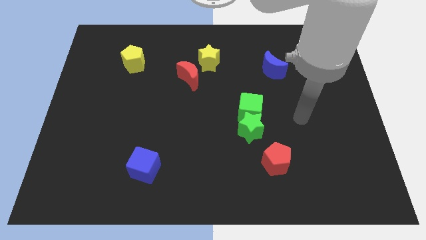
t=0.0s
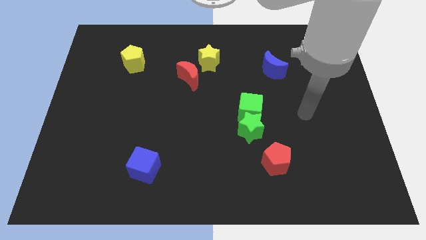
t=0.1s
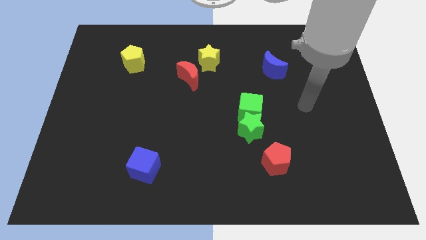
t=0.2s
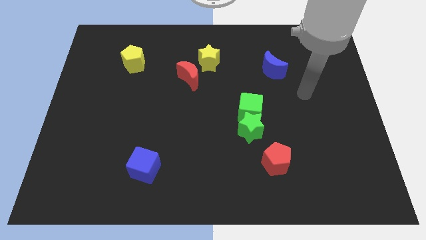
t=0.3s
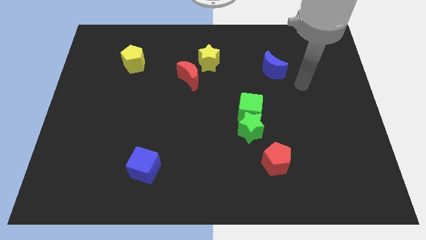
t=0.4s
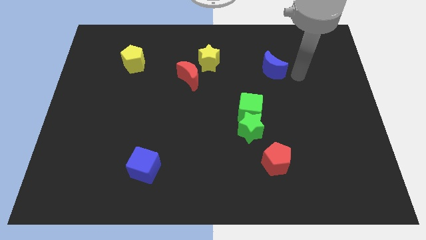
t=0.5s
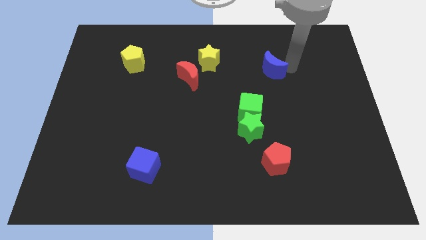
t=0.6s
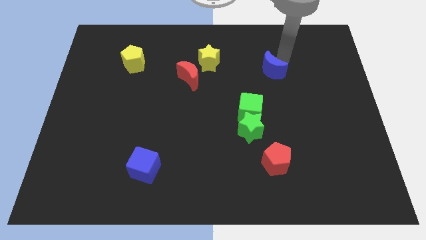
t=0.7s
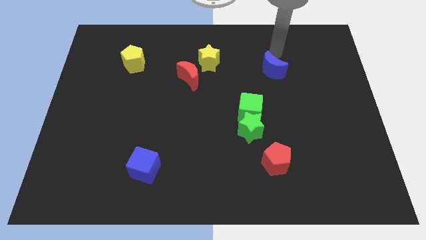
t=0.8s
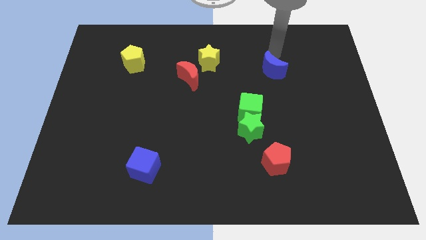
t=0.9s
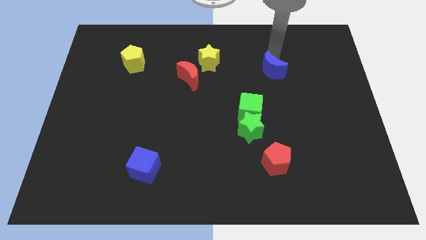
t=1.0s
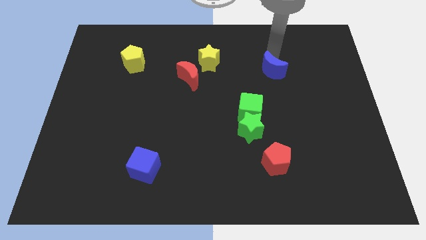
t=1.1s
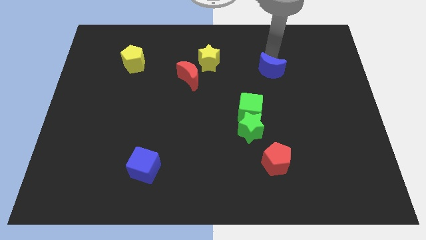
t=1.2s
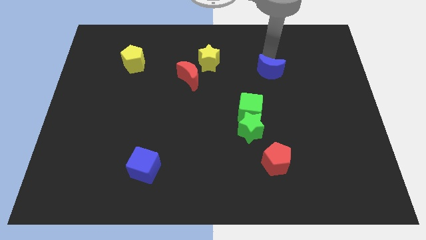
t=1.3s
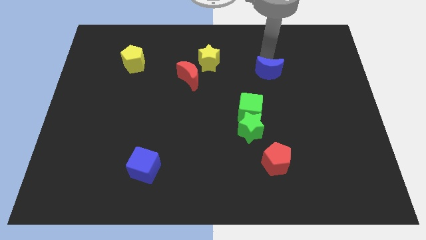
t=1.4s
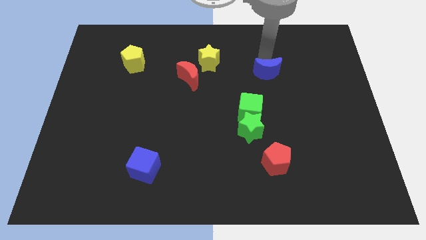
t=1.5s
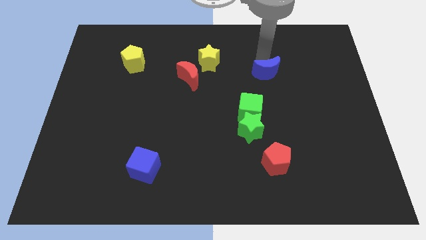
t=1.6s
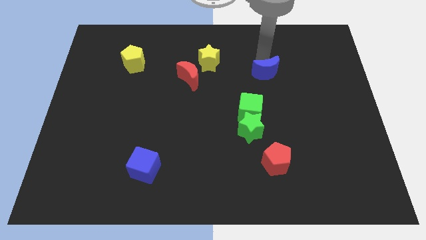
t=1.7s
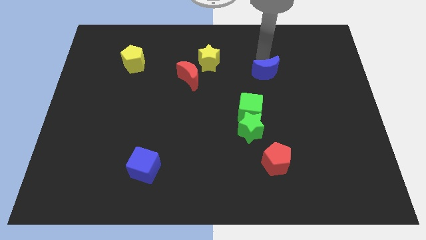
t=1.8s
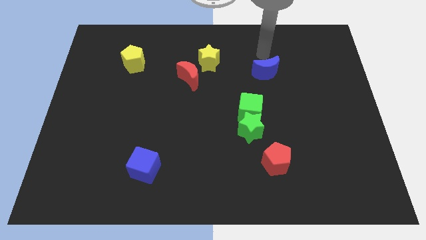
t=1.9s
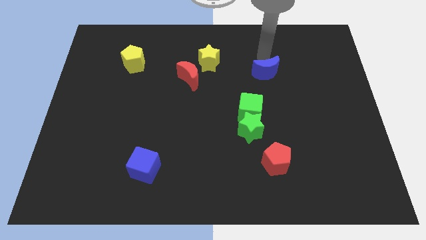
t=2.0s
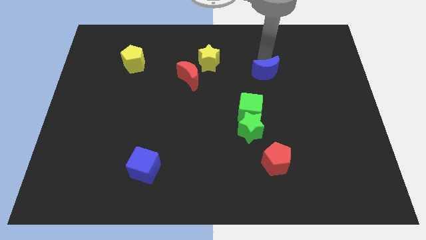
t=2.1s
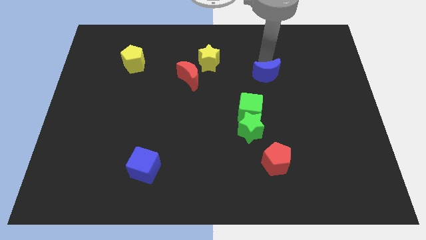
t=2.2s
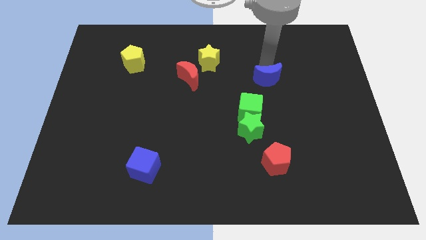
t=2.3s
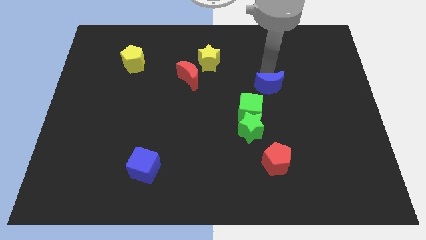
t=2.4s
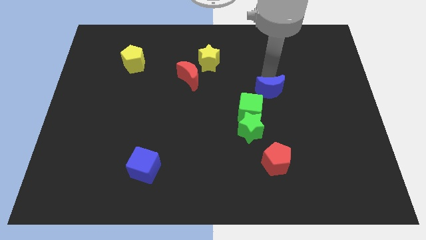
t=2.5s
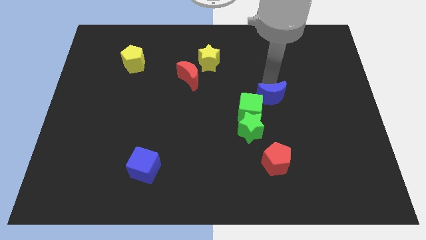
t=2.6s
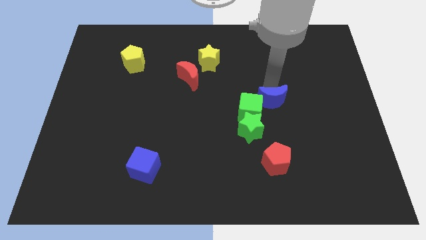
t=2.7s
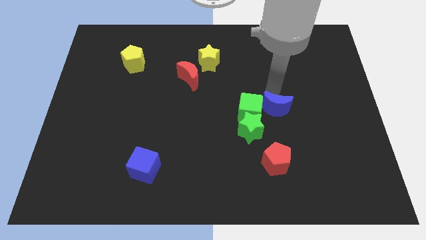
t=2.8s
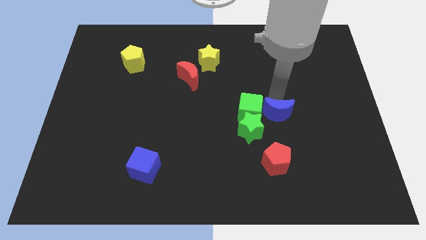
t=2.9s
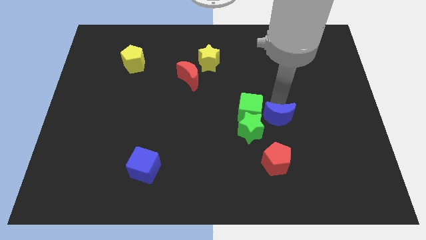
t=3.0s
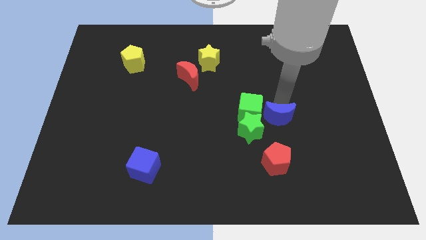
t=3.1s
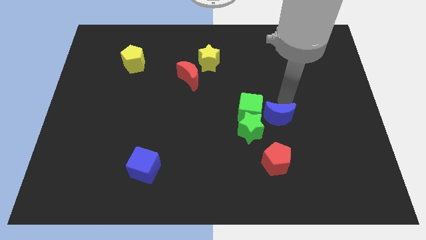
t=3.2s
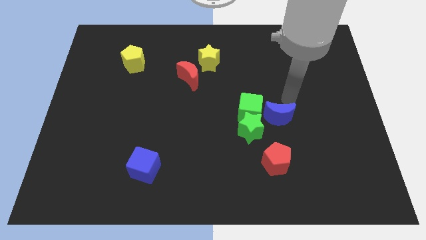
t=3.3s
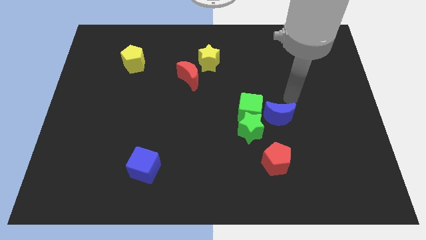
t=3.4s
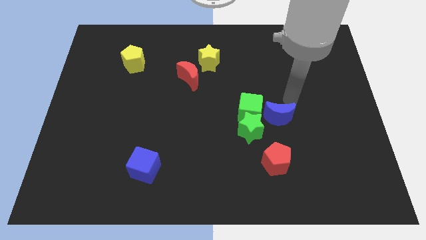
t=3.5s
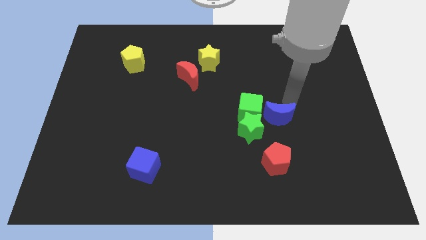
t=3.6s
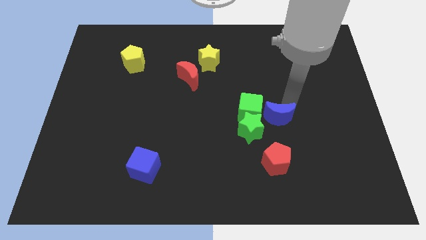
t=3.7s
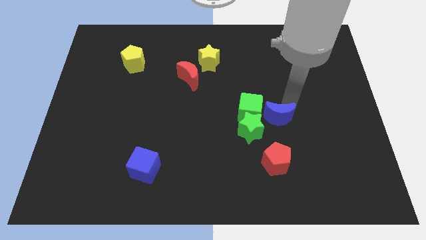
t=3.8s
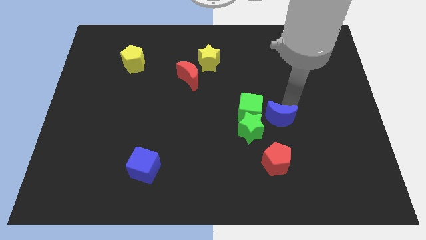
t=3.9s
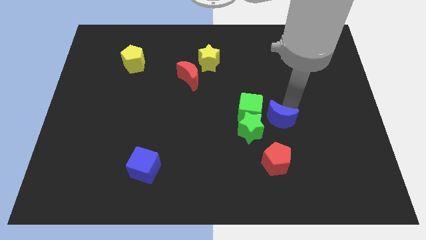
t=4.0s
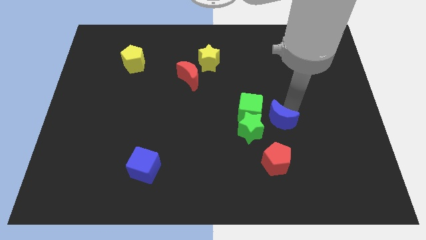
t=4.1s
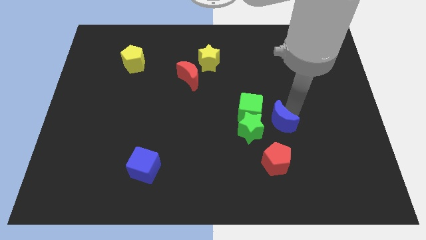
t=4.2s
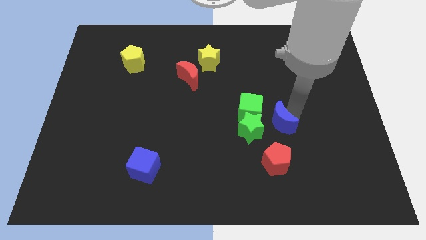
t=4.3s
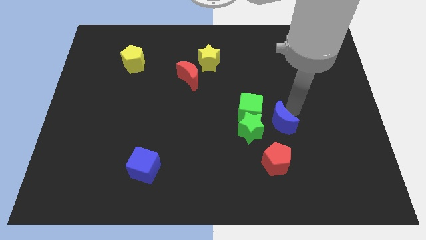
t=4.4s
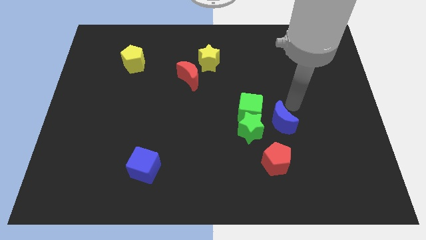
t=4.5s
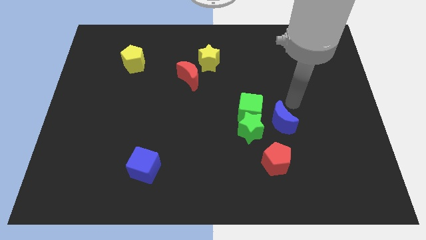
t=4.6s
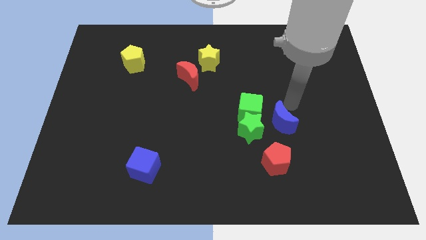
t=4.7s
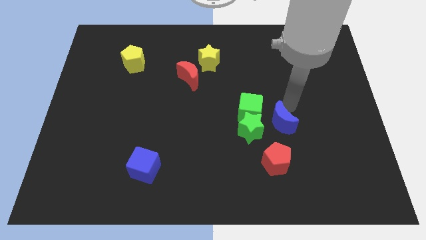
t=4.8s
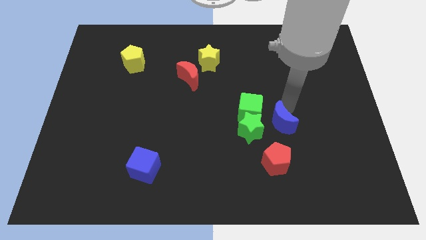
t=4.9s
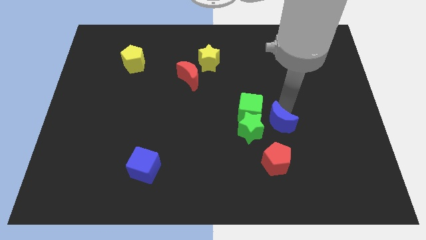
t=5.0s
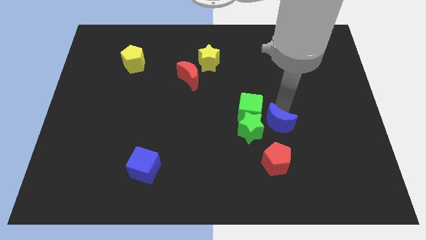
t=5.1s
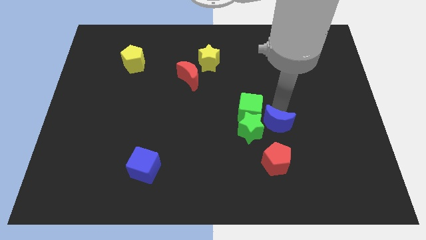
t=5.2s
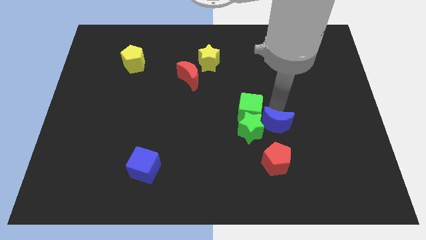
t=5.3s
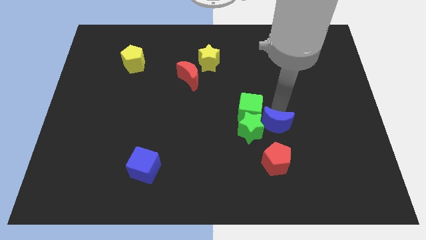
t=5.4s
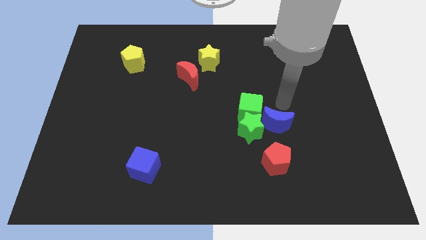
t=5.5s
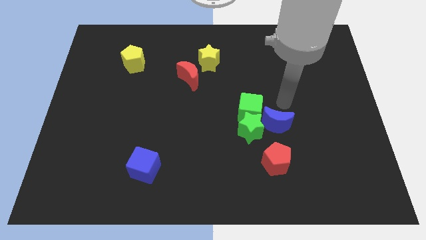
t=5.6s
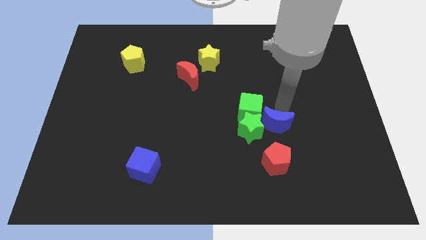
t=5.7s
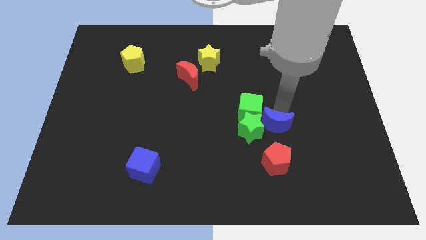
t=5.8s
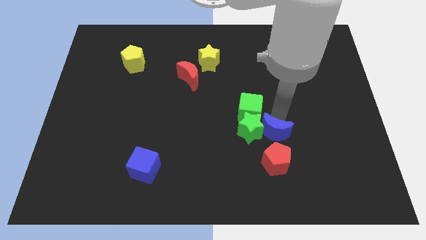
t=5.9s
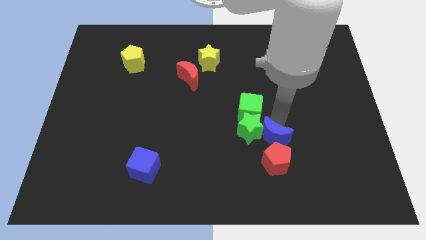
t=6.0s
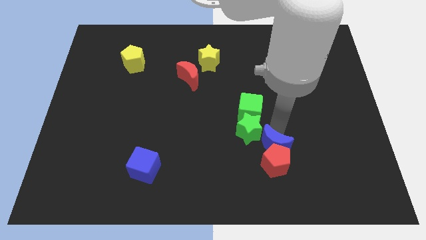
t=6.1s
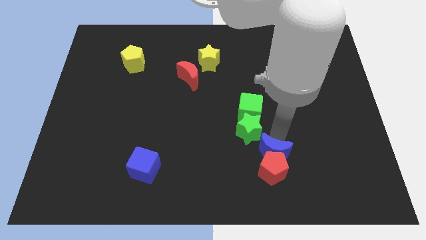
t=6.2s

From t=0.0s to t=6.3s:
move the blue moon to the bottom side of the green star

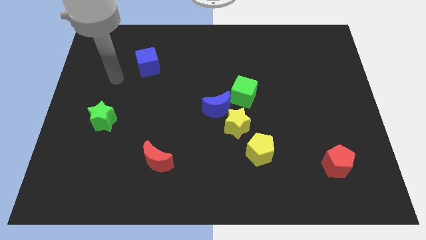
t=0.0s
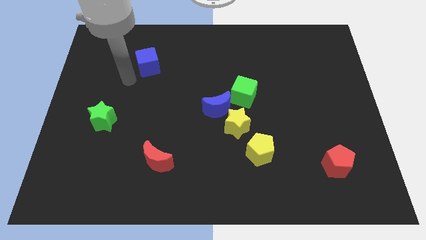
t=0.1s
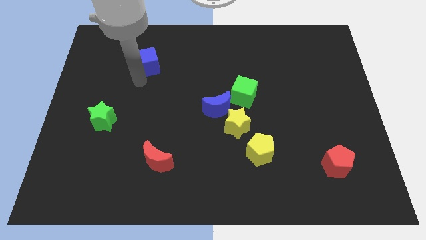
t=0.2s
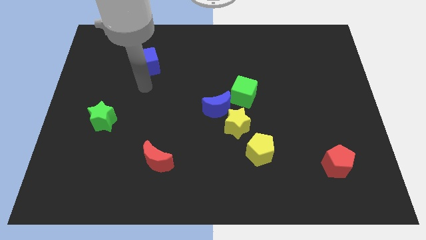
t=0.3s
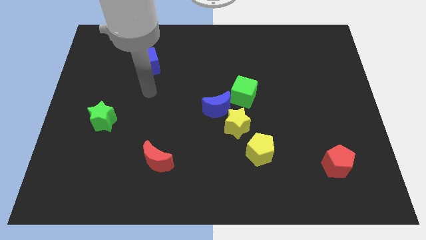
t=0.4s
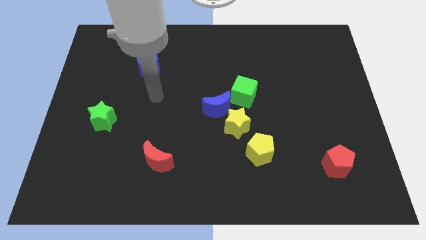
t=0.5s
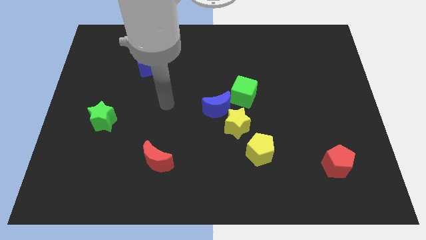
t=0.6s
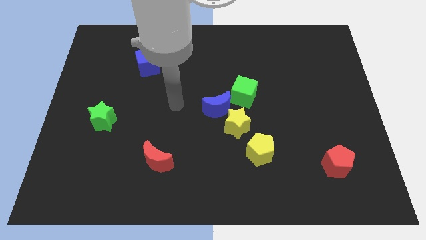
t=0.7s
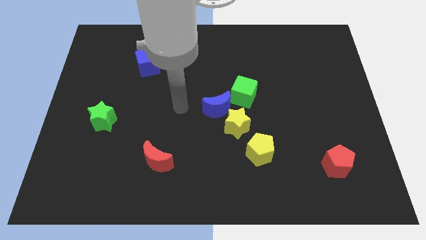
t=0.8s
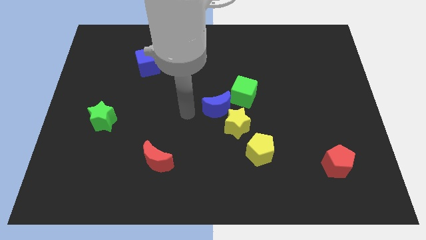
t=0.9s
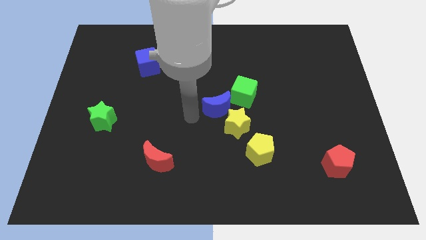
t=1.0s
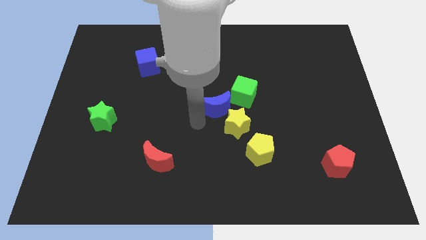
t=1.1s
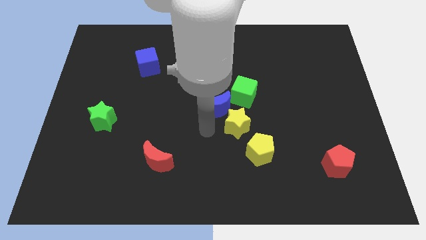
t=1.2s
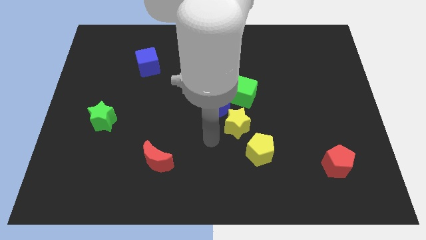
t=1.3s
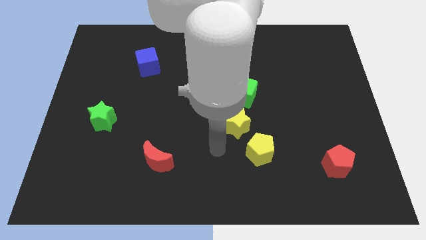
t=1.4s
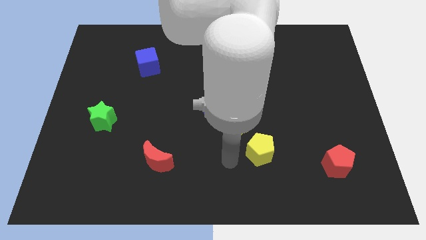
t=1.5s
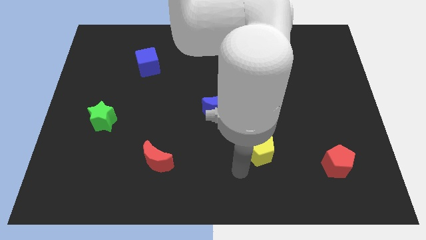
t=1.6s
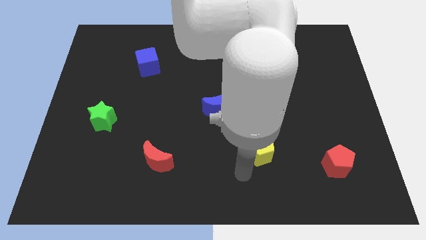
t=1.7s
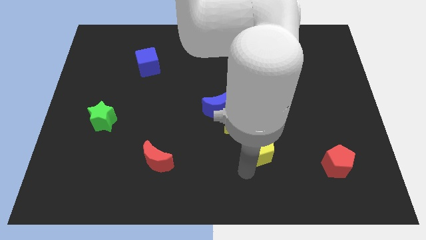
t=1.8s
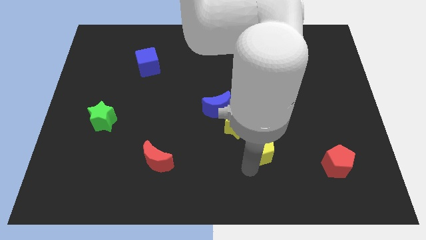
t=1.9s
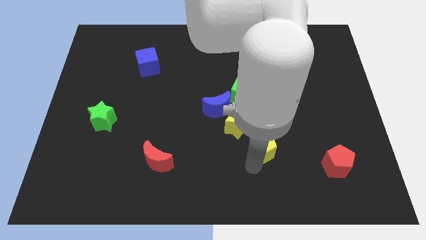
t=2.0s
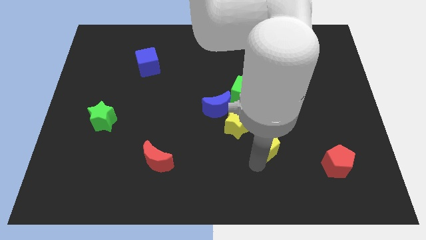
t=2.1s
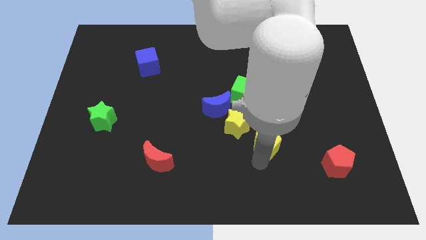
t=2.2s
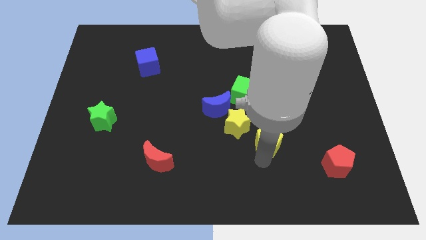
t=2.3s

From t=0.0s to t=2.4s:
slide the yellow pentagon just right of the yellow star
